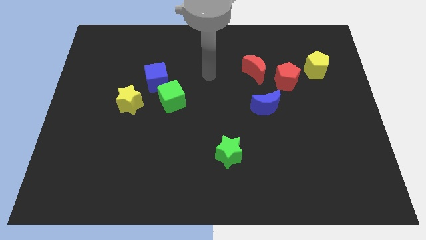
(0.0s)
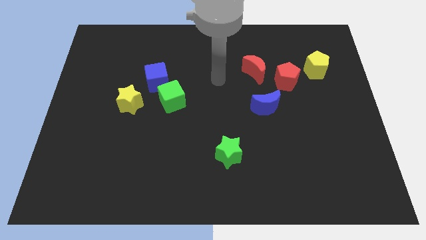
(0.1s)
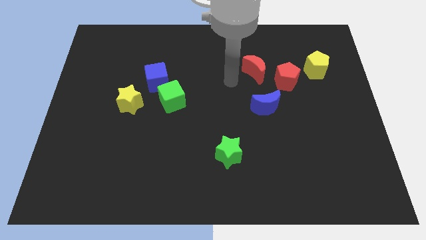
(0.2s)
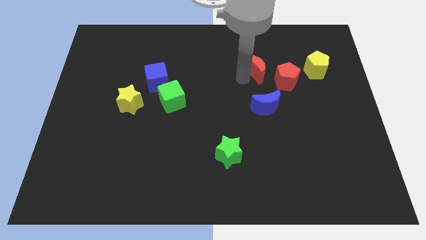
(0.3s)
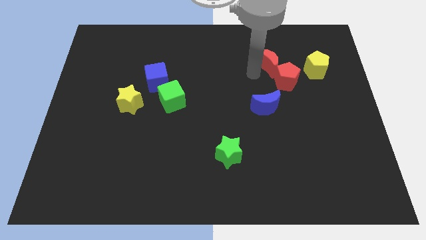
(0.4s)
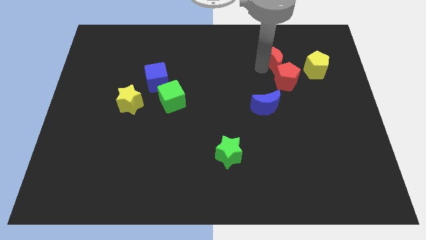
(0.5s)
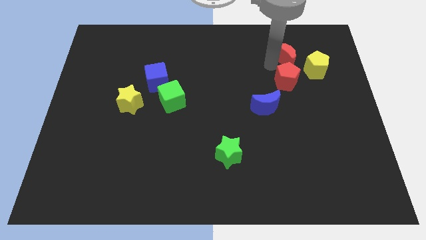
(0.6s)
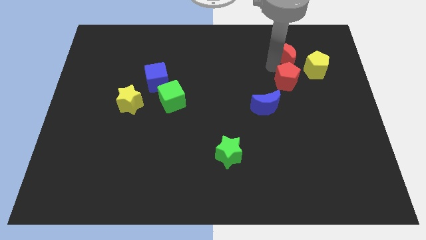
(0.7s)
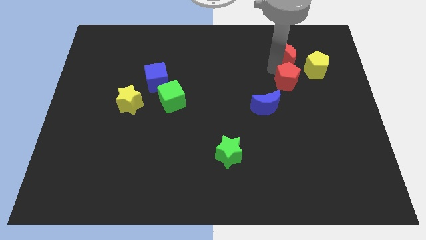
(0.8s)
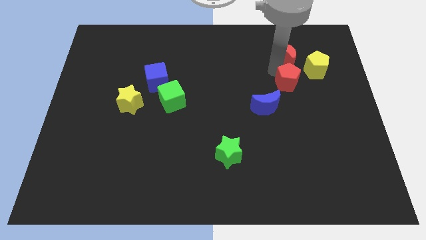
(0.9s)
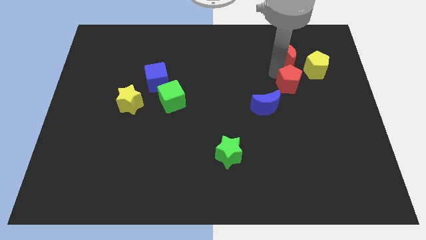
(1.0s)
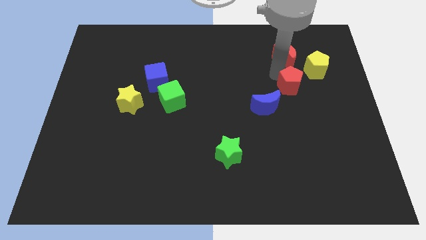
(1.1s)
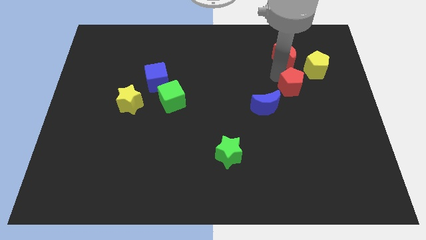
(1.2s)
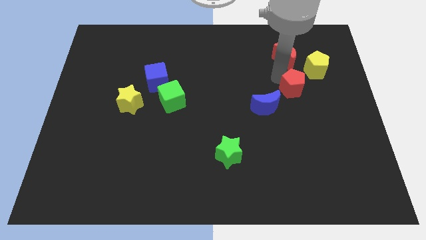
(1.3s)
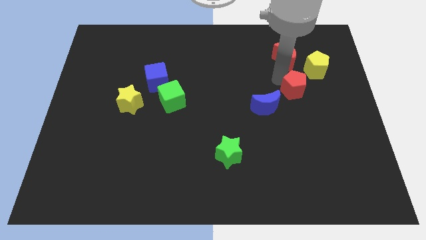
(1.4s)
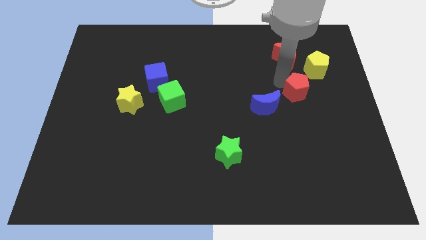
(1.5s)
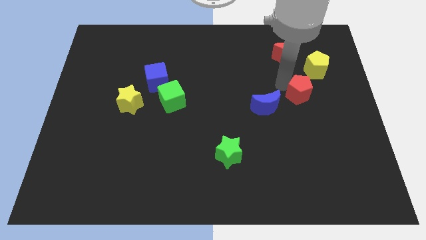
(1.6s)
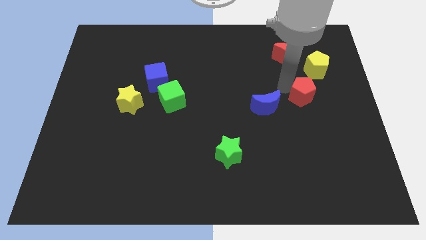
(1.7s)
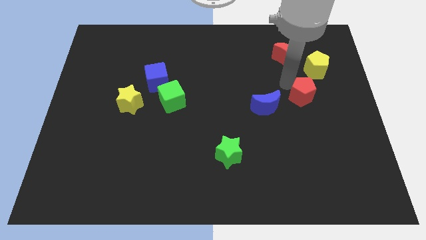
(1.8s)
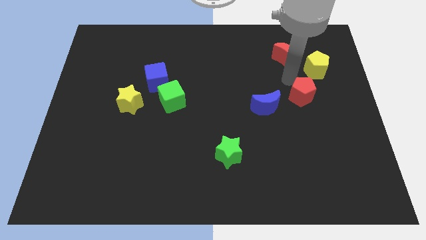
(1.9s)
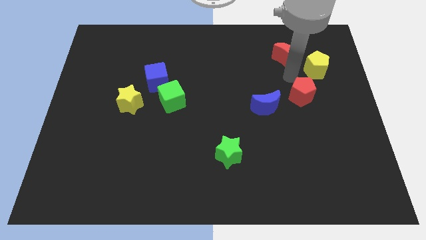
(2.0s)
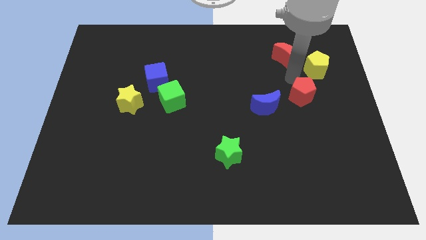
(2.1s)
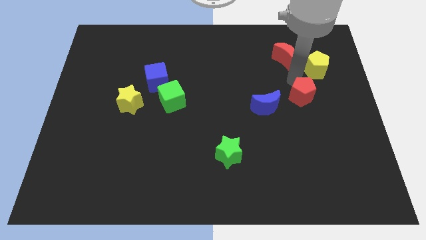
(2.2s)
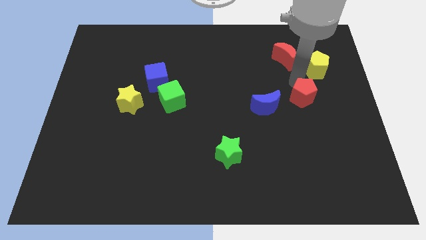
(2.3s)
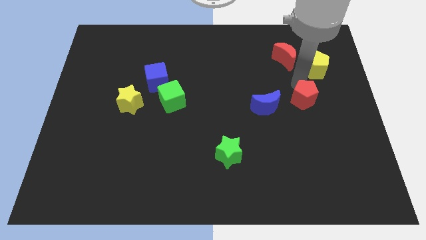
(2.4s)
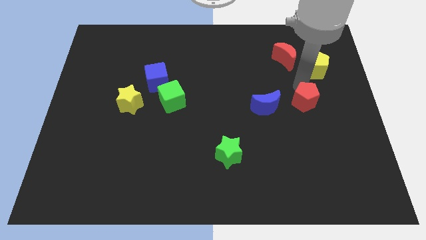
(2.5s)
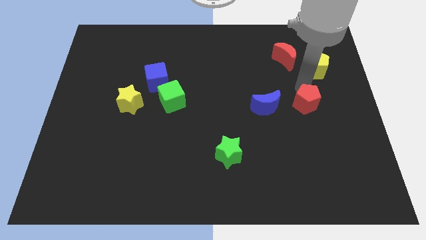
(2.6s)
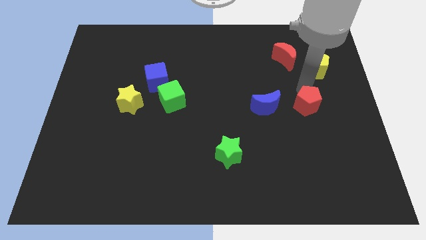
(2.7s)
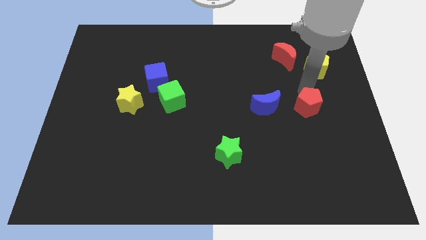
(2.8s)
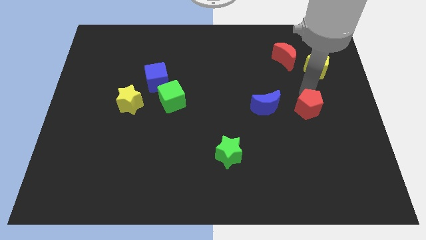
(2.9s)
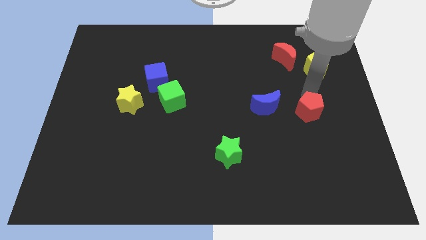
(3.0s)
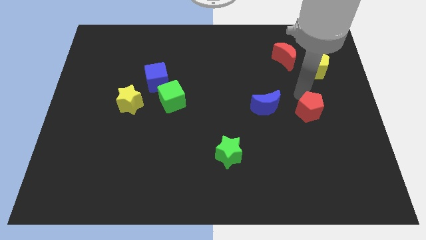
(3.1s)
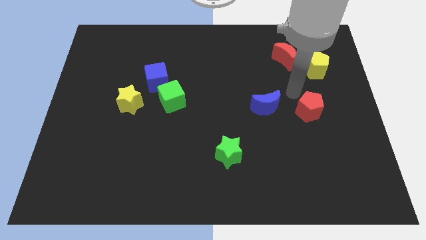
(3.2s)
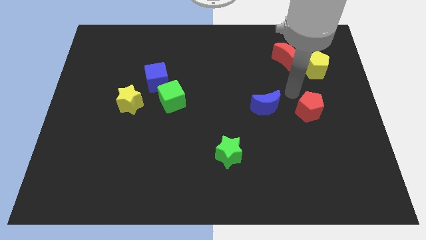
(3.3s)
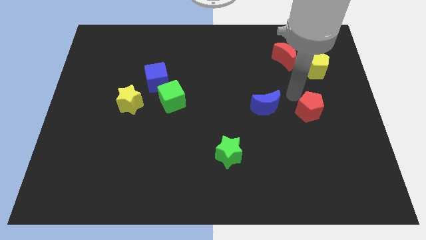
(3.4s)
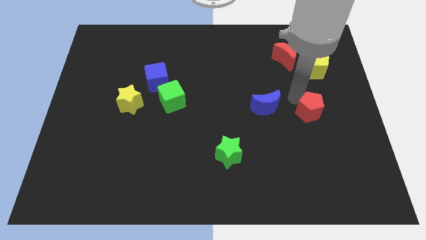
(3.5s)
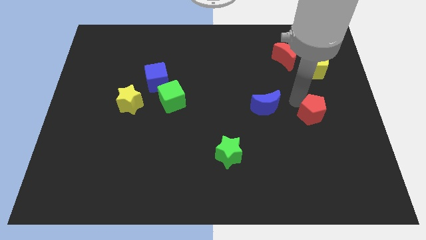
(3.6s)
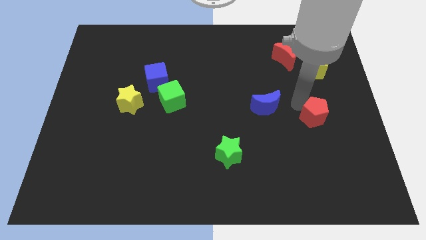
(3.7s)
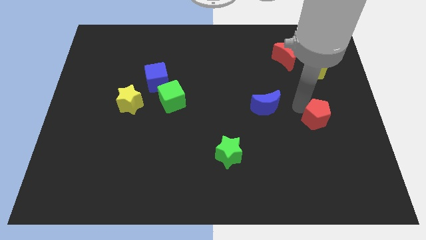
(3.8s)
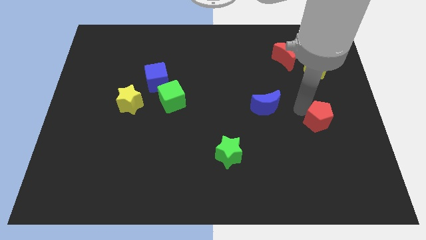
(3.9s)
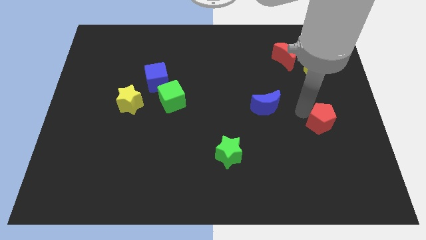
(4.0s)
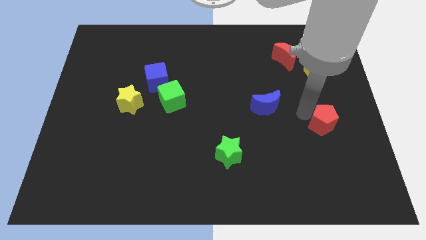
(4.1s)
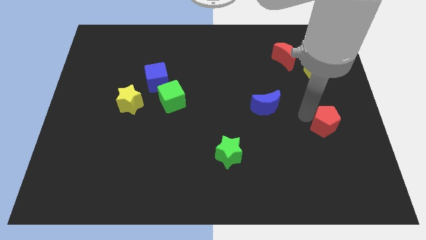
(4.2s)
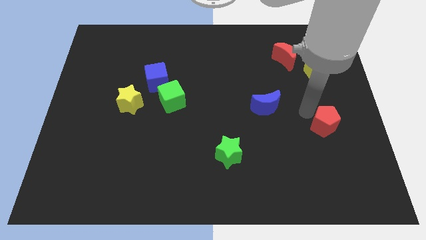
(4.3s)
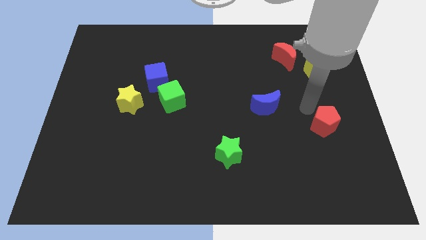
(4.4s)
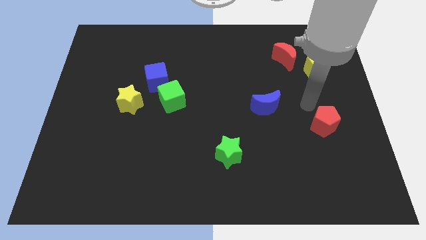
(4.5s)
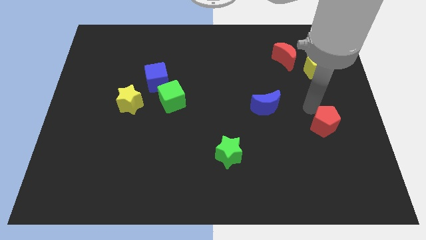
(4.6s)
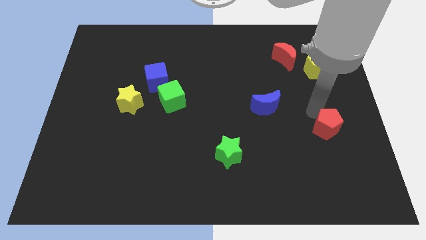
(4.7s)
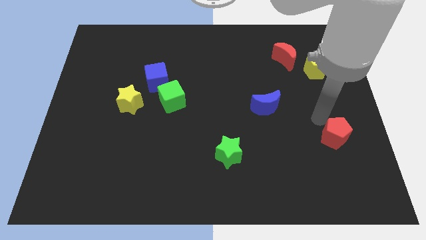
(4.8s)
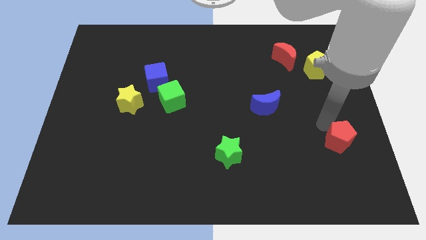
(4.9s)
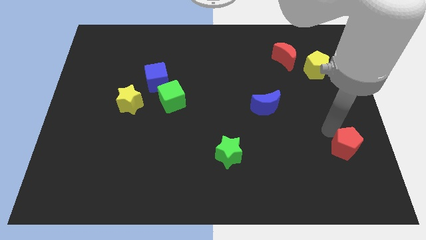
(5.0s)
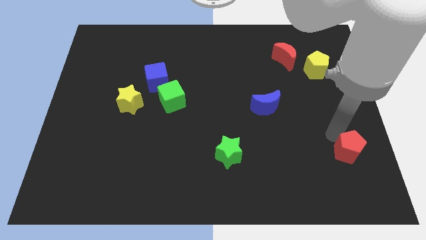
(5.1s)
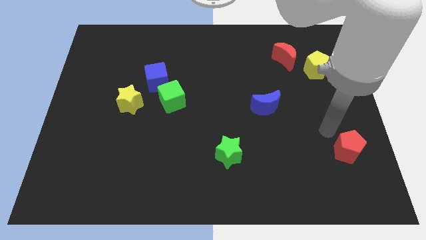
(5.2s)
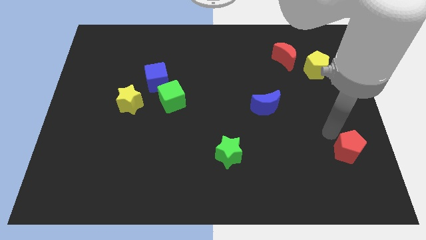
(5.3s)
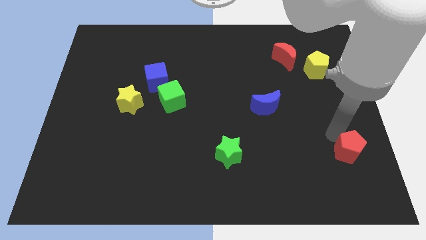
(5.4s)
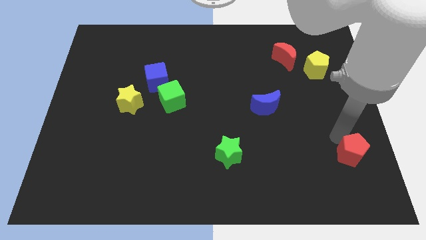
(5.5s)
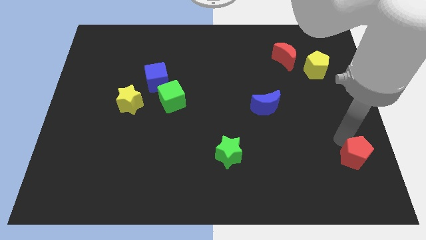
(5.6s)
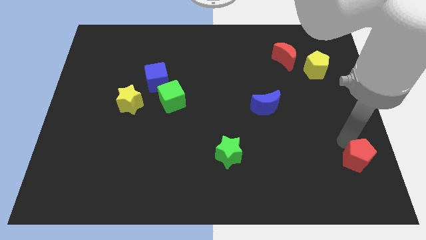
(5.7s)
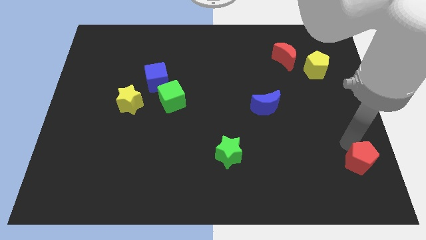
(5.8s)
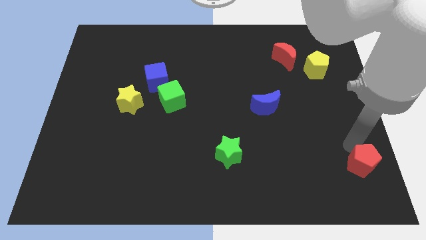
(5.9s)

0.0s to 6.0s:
push the red pentagon to the bottom right corner

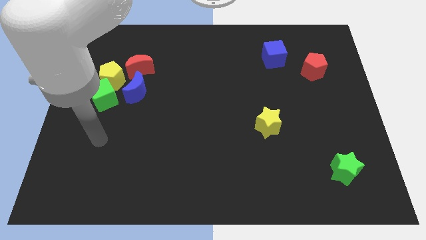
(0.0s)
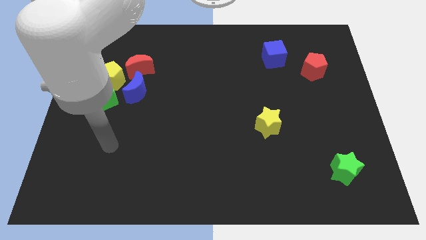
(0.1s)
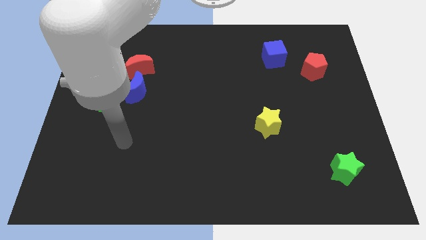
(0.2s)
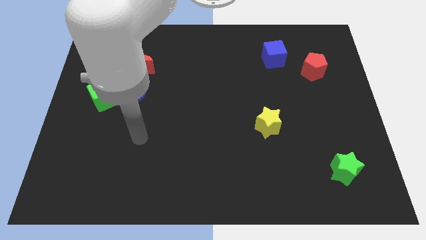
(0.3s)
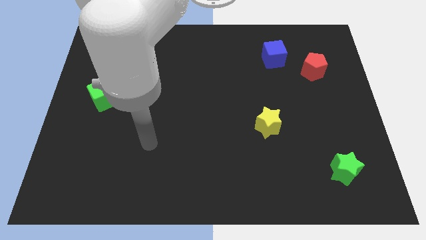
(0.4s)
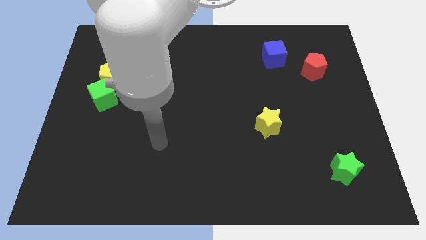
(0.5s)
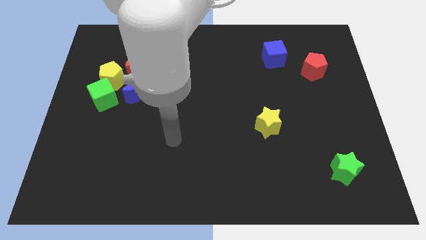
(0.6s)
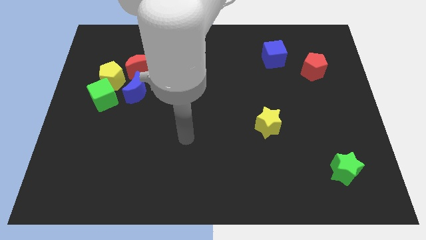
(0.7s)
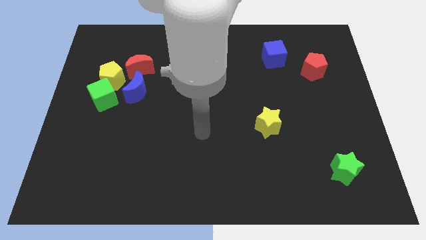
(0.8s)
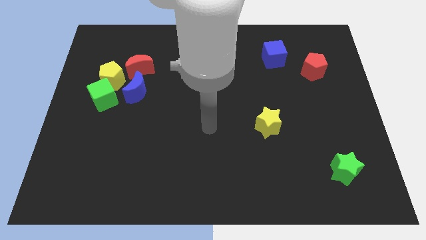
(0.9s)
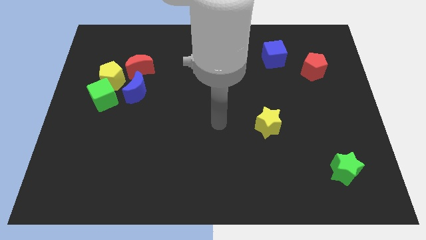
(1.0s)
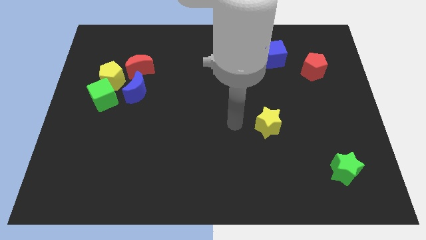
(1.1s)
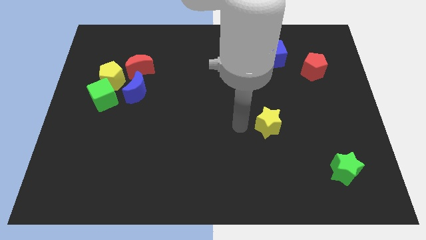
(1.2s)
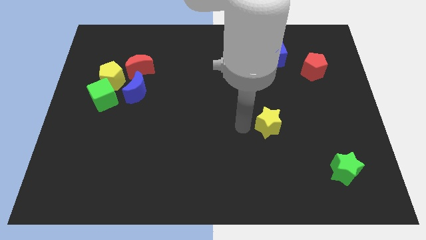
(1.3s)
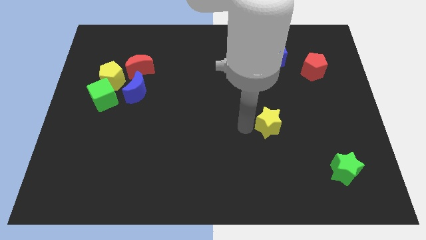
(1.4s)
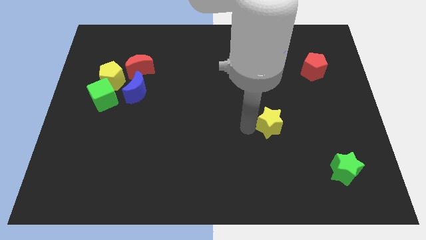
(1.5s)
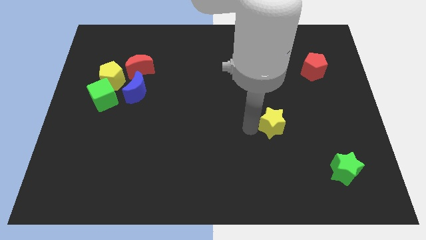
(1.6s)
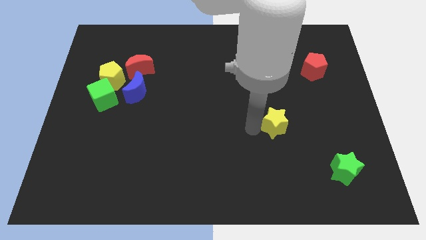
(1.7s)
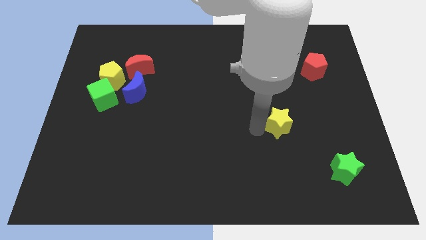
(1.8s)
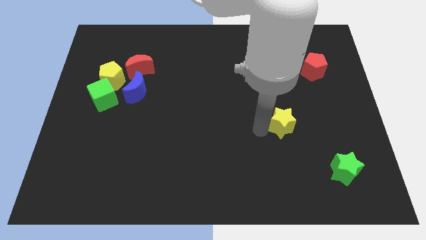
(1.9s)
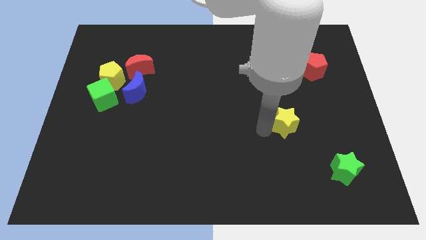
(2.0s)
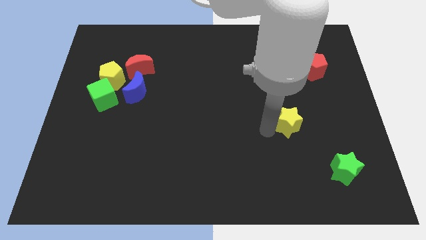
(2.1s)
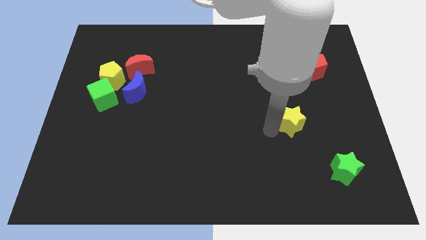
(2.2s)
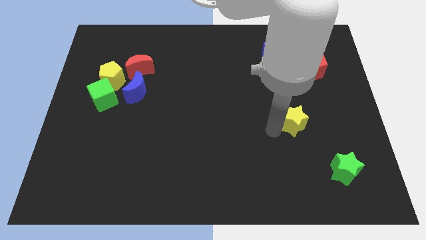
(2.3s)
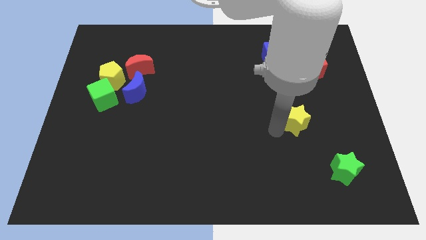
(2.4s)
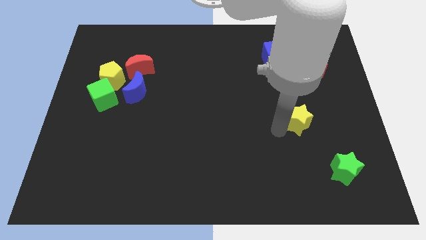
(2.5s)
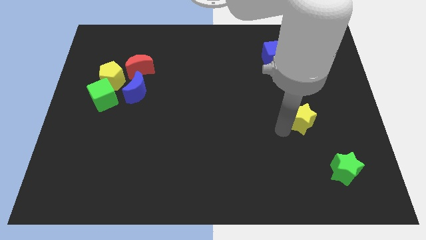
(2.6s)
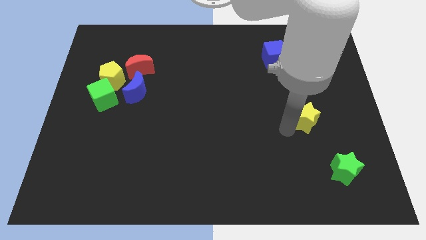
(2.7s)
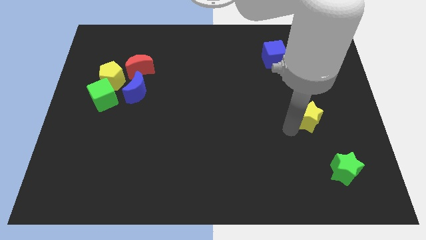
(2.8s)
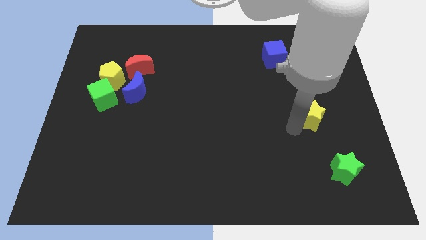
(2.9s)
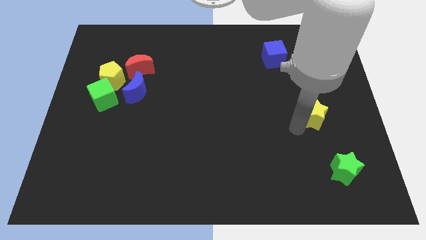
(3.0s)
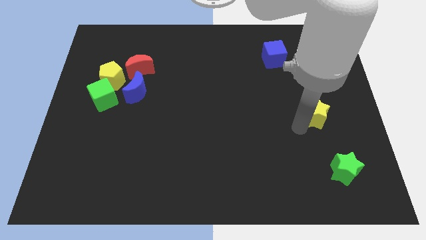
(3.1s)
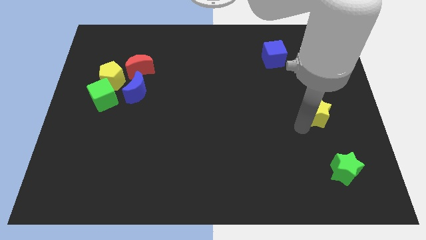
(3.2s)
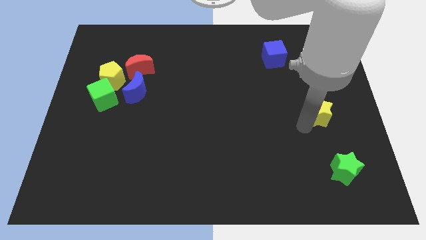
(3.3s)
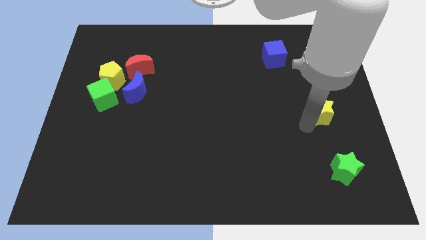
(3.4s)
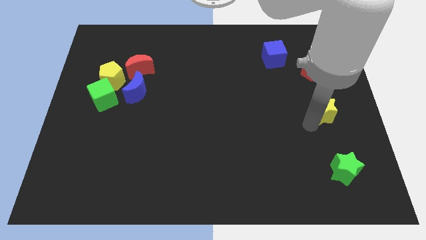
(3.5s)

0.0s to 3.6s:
put the yellow star to the center right
